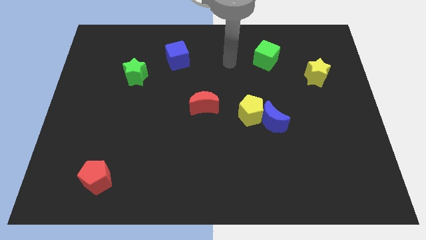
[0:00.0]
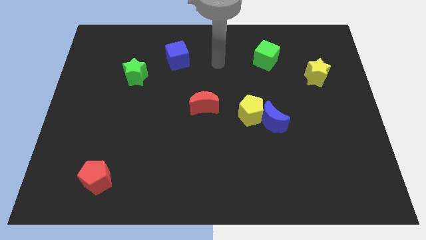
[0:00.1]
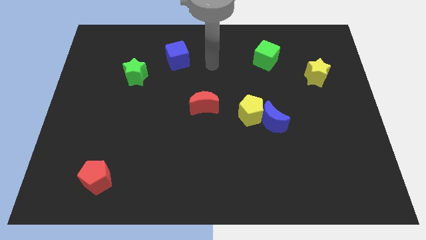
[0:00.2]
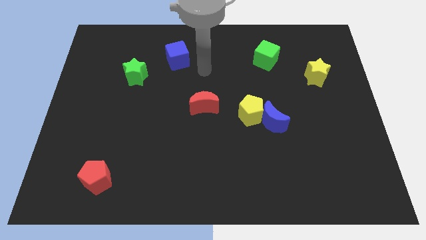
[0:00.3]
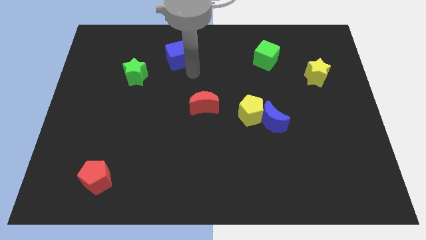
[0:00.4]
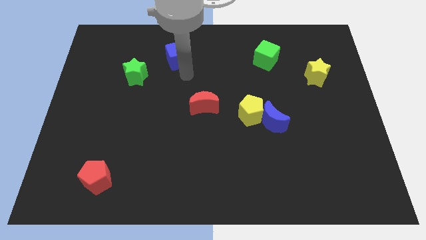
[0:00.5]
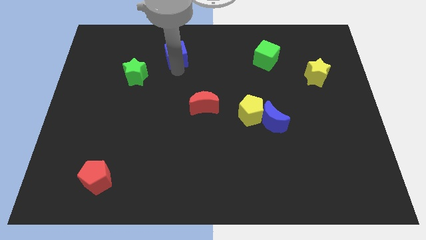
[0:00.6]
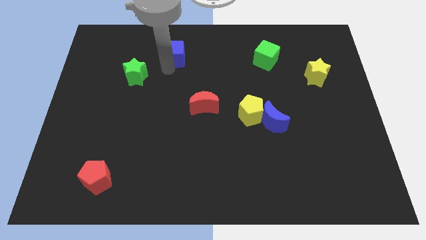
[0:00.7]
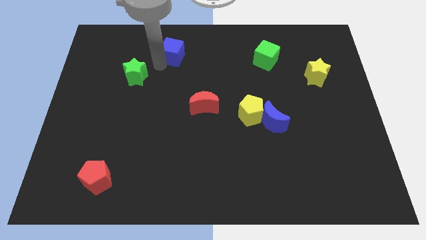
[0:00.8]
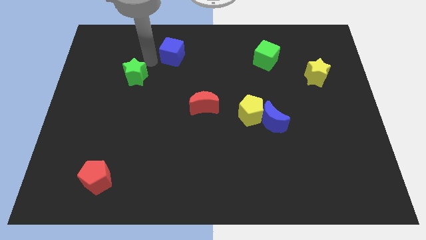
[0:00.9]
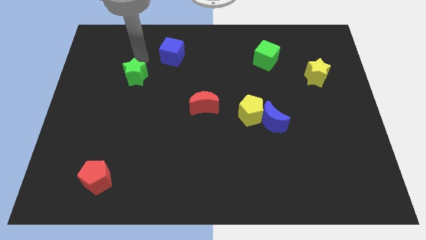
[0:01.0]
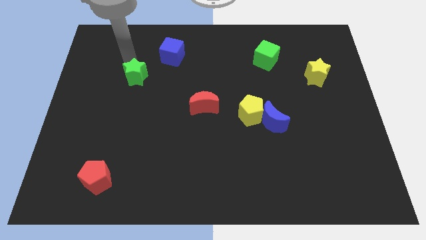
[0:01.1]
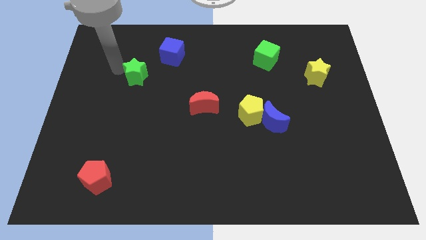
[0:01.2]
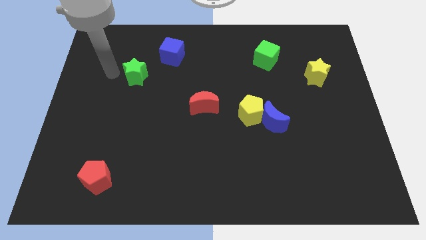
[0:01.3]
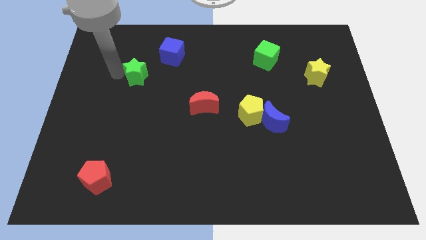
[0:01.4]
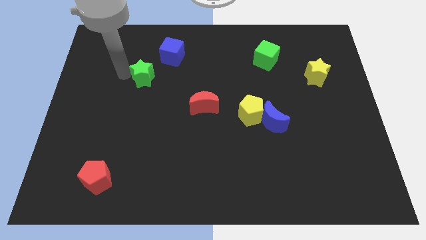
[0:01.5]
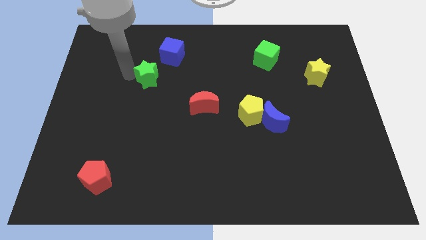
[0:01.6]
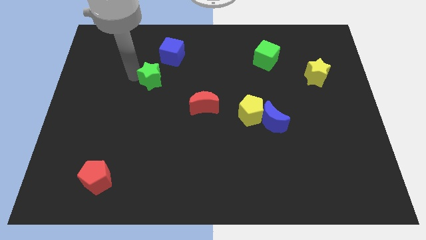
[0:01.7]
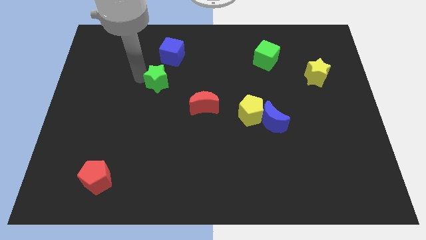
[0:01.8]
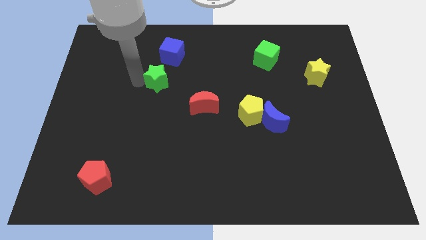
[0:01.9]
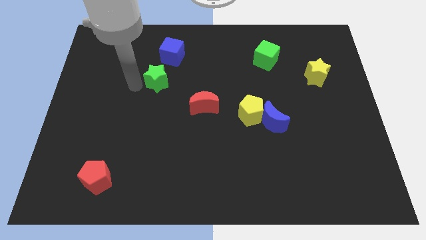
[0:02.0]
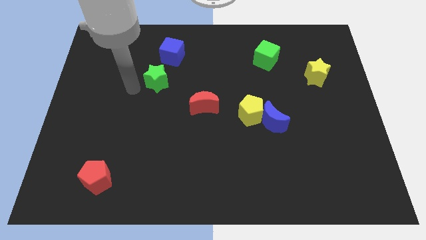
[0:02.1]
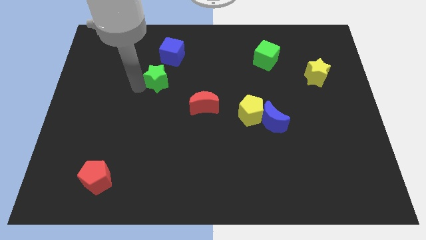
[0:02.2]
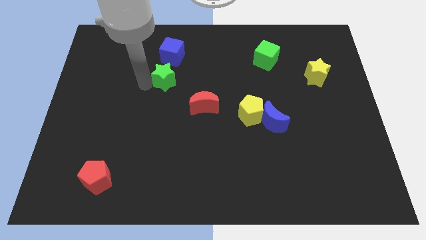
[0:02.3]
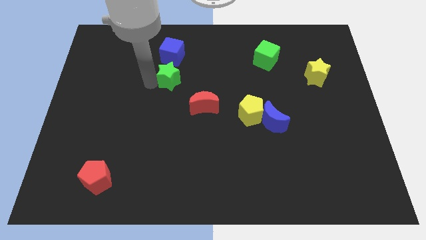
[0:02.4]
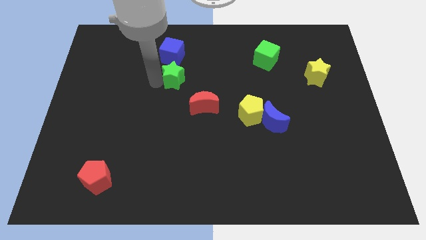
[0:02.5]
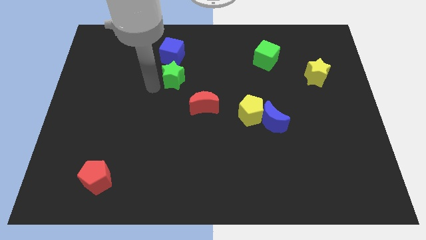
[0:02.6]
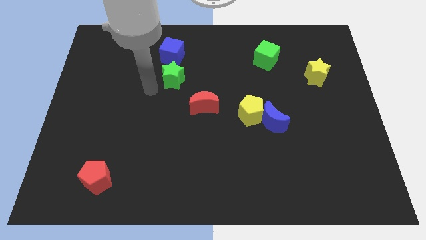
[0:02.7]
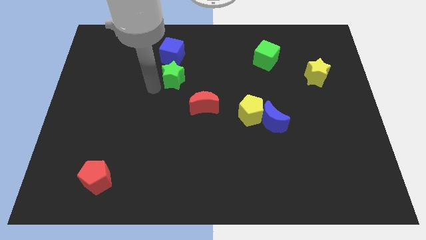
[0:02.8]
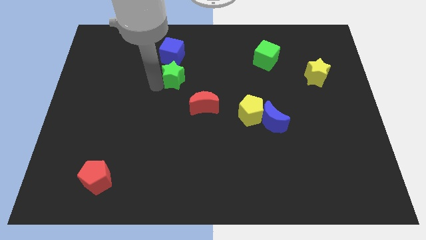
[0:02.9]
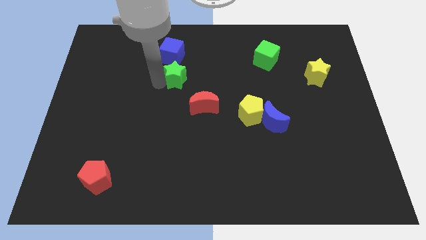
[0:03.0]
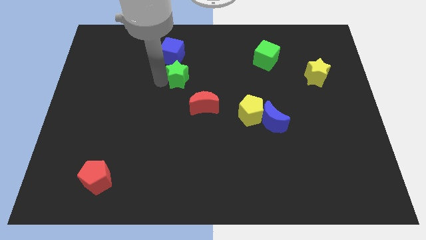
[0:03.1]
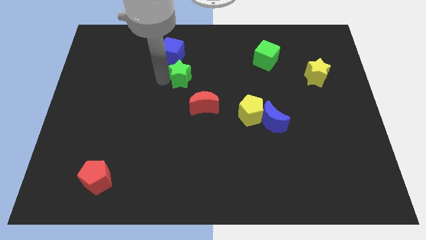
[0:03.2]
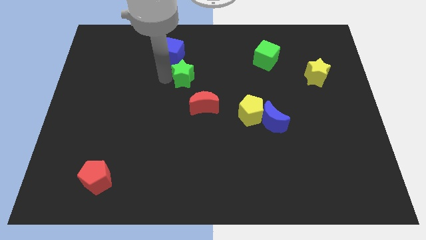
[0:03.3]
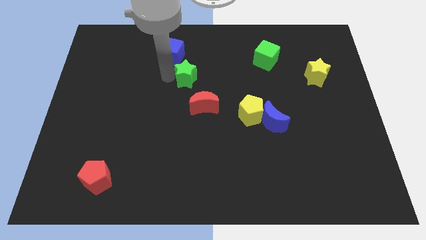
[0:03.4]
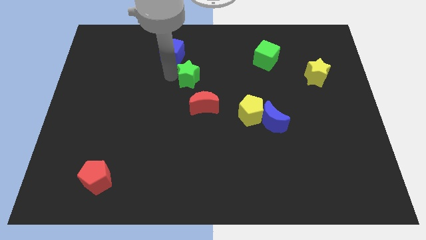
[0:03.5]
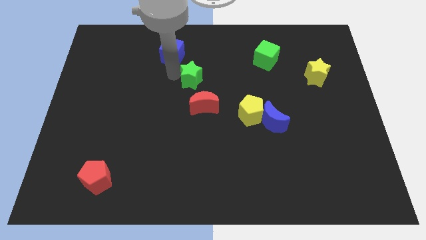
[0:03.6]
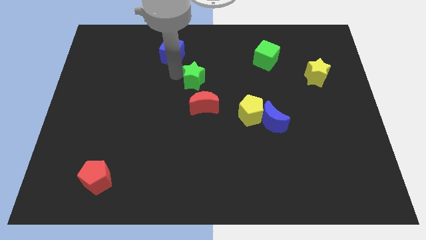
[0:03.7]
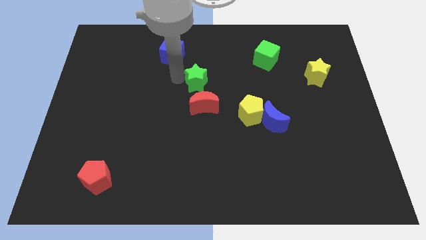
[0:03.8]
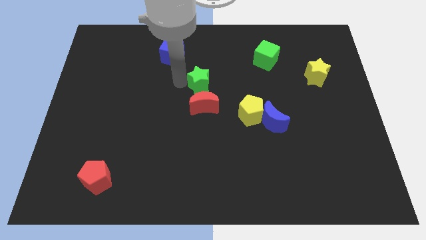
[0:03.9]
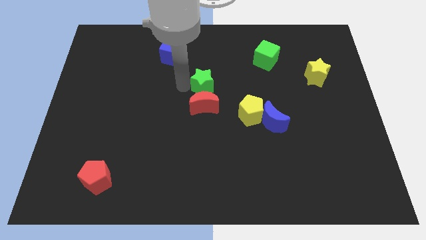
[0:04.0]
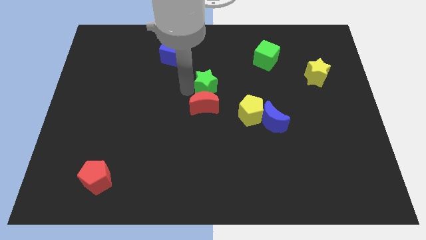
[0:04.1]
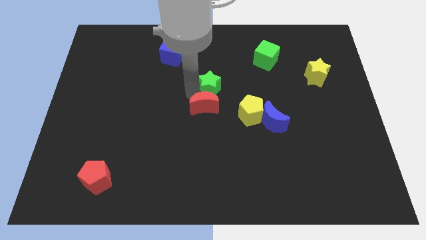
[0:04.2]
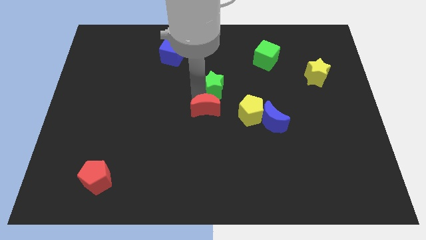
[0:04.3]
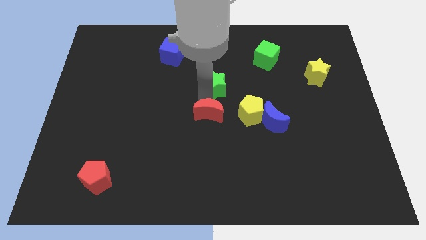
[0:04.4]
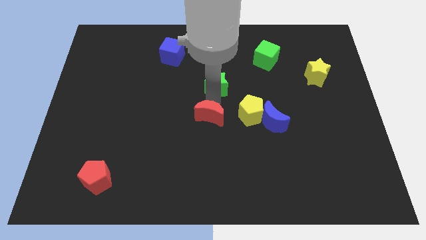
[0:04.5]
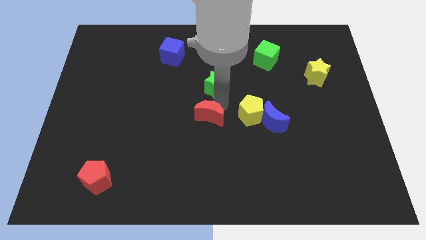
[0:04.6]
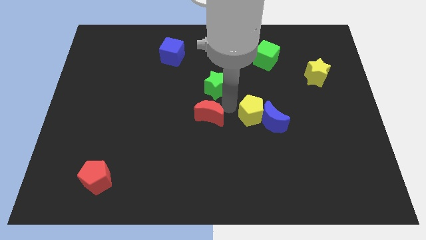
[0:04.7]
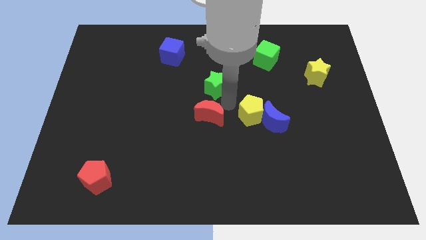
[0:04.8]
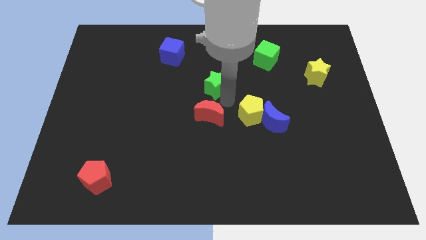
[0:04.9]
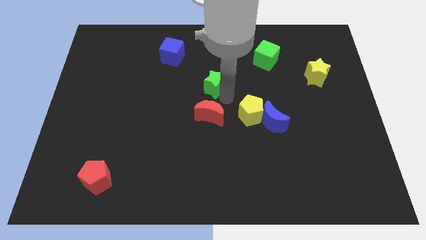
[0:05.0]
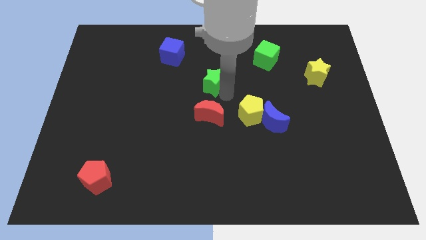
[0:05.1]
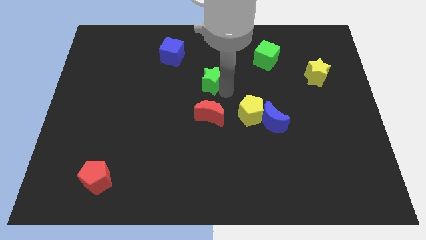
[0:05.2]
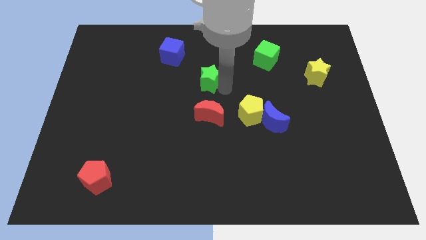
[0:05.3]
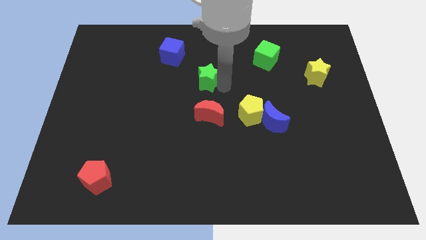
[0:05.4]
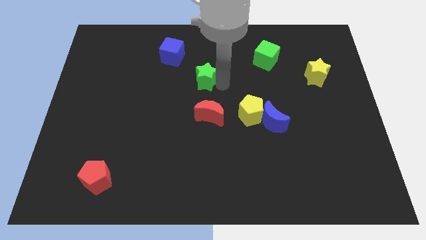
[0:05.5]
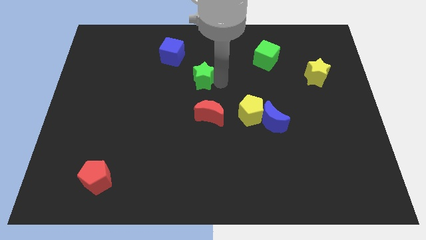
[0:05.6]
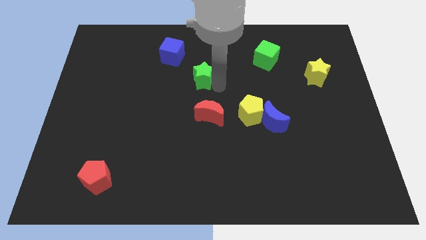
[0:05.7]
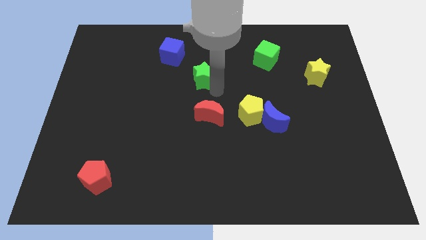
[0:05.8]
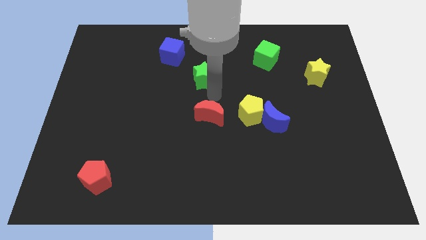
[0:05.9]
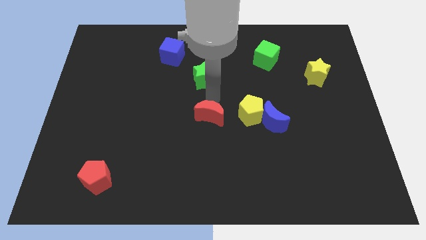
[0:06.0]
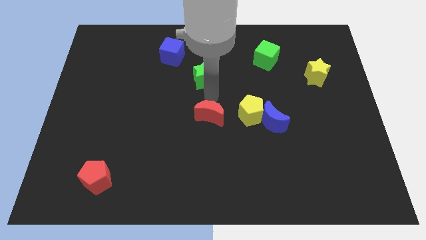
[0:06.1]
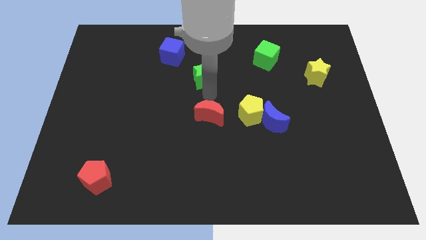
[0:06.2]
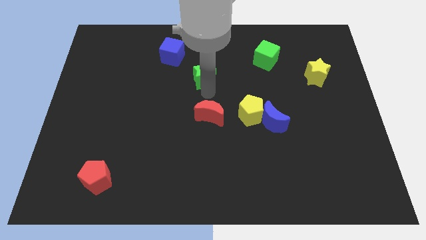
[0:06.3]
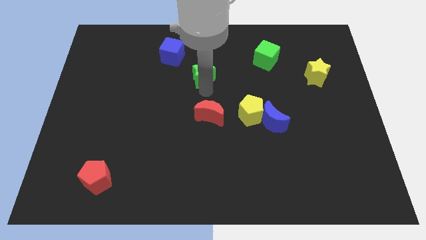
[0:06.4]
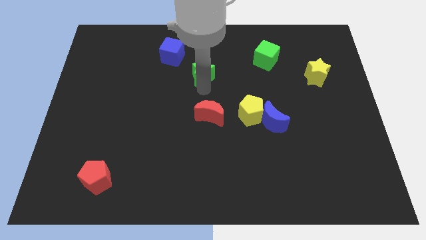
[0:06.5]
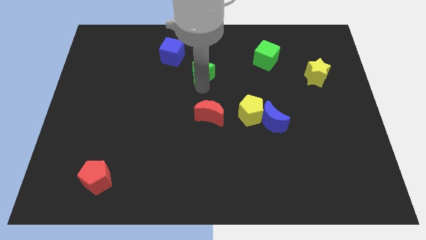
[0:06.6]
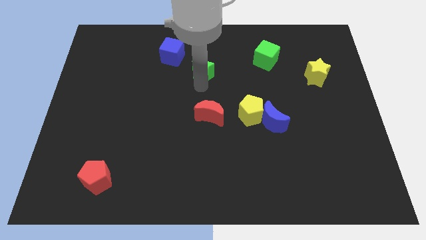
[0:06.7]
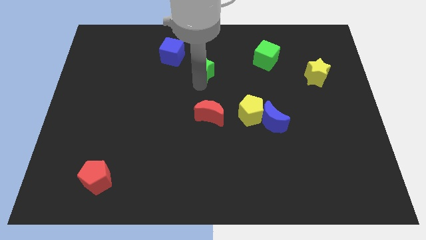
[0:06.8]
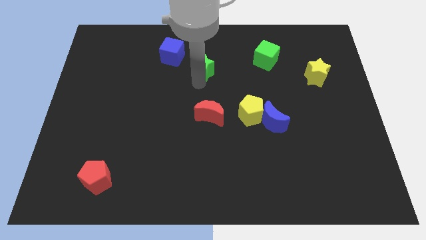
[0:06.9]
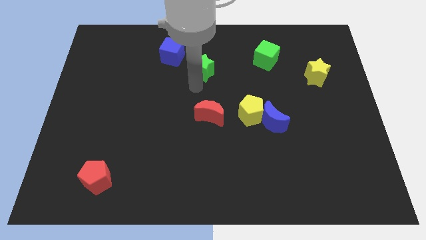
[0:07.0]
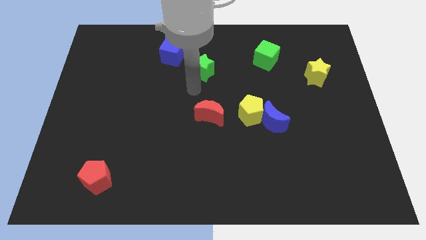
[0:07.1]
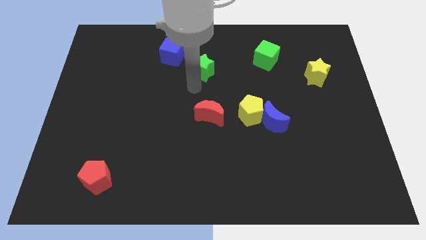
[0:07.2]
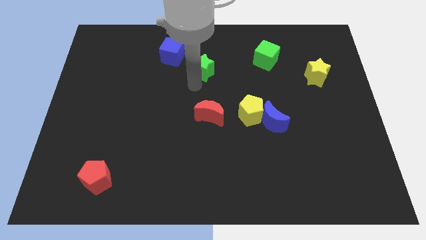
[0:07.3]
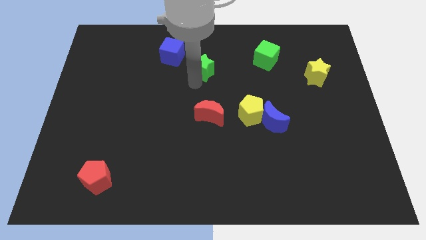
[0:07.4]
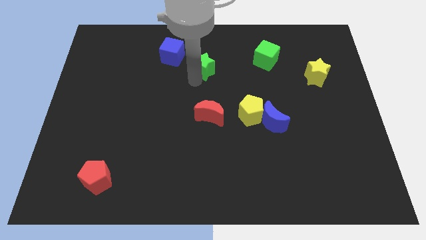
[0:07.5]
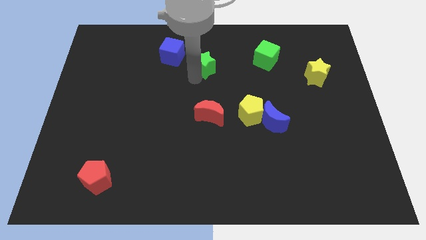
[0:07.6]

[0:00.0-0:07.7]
move the green star to the right side of the blue cube
